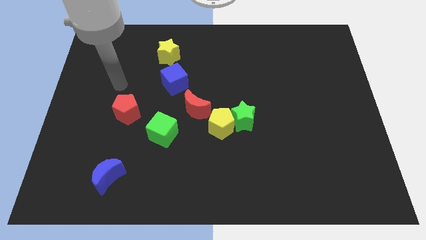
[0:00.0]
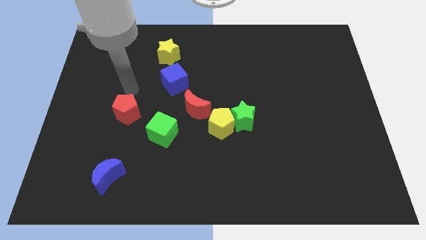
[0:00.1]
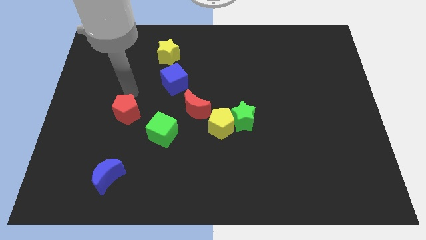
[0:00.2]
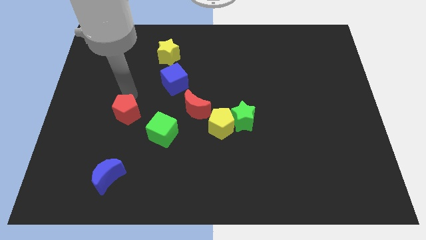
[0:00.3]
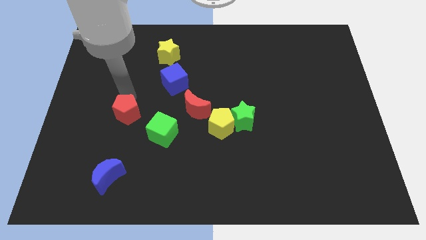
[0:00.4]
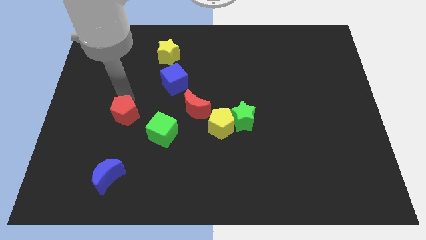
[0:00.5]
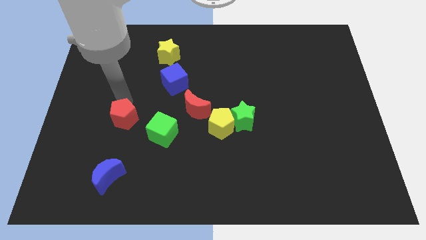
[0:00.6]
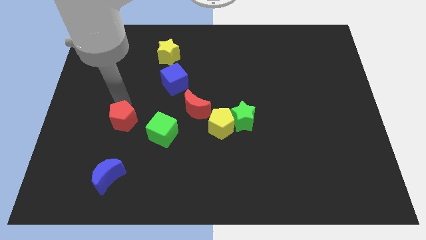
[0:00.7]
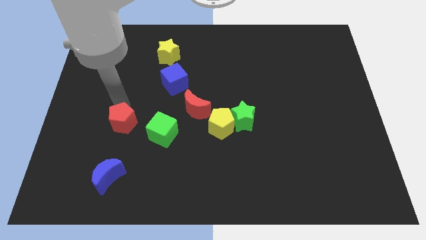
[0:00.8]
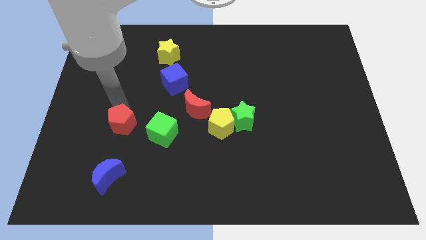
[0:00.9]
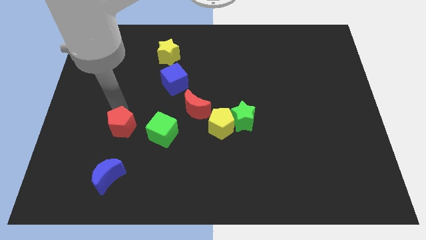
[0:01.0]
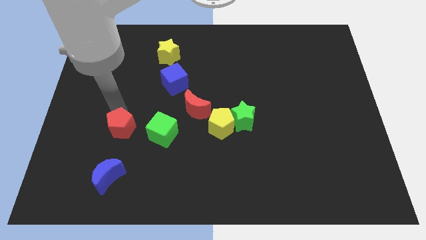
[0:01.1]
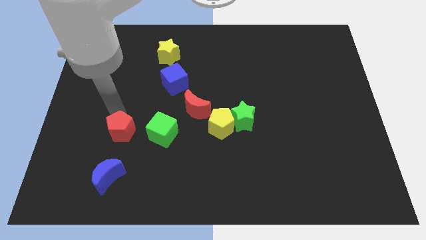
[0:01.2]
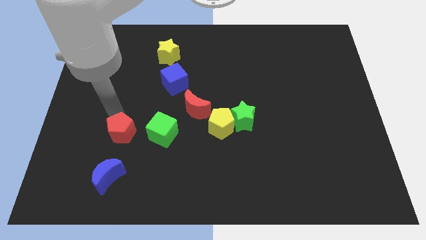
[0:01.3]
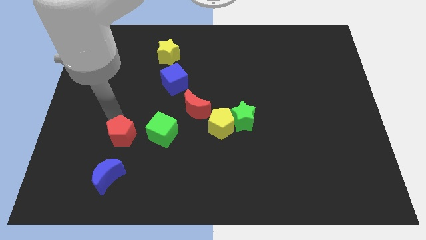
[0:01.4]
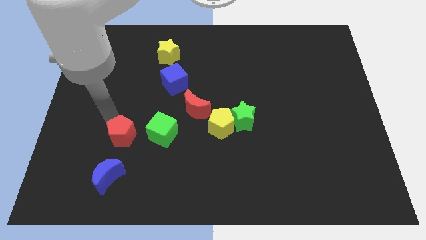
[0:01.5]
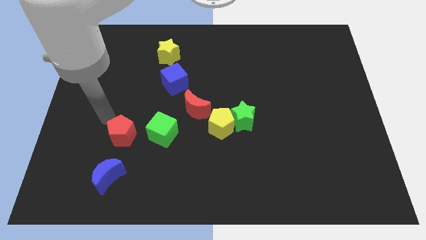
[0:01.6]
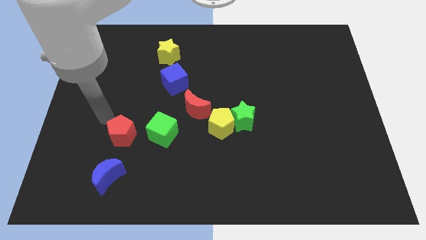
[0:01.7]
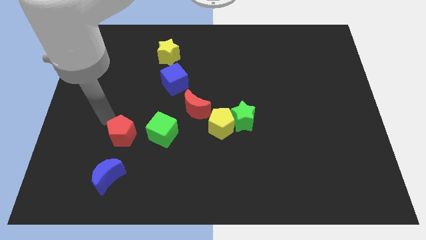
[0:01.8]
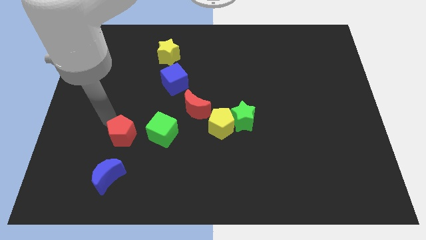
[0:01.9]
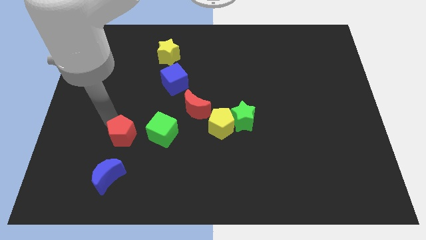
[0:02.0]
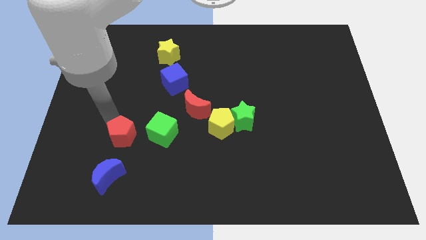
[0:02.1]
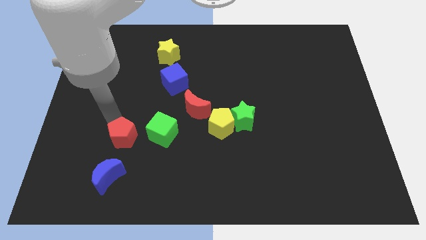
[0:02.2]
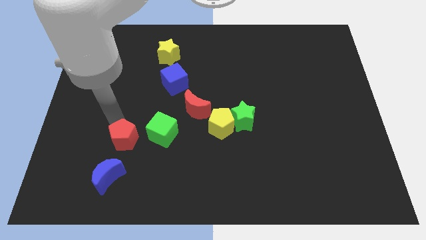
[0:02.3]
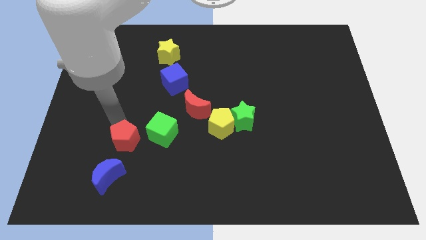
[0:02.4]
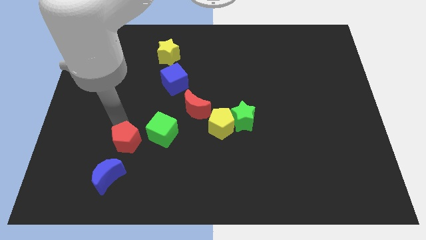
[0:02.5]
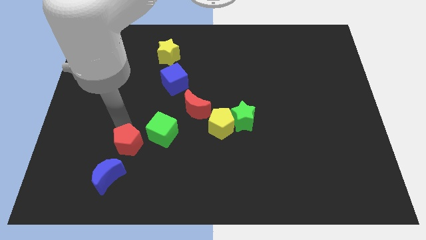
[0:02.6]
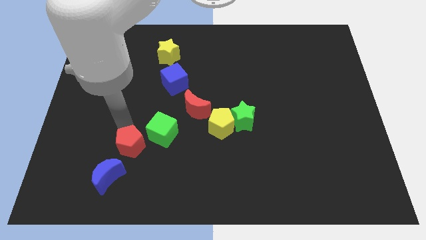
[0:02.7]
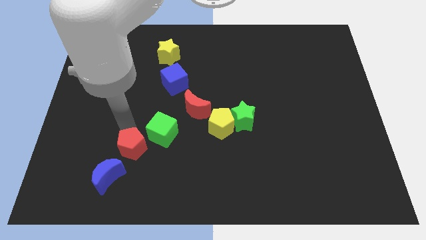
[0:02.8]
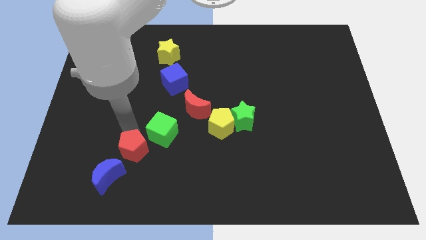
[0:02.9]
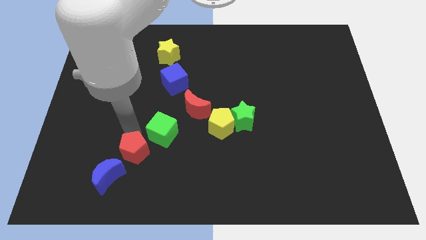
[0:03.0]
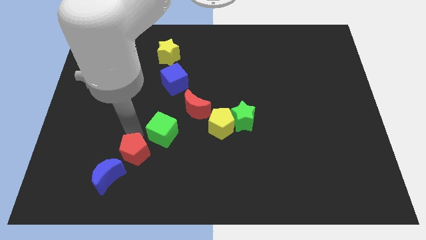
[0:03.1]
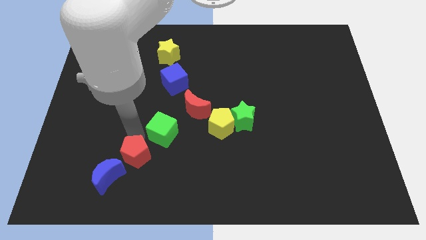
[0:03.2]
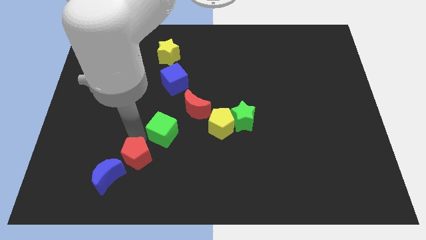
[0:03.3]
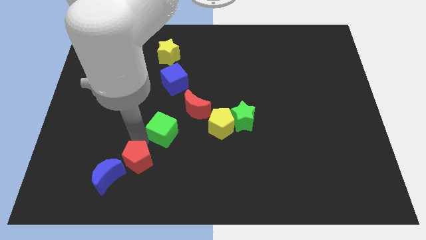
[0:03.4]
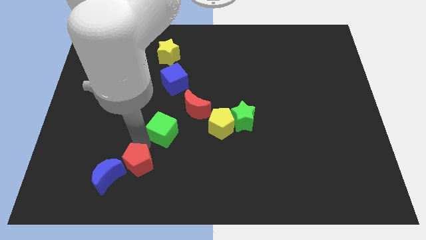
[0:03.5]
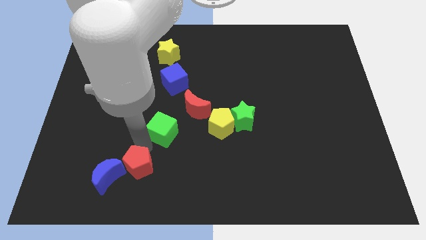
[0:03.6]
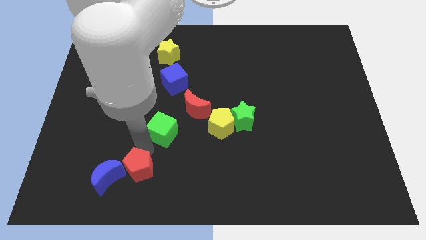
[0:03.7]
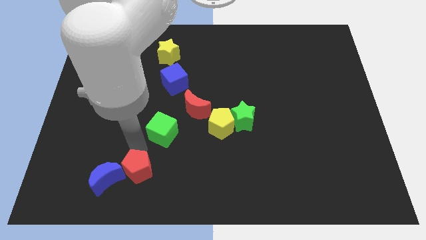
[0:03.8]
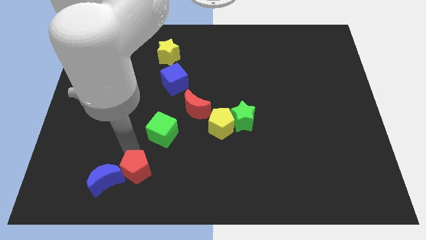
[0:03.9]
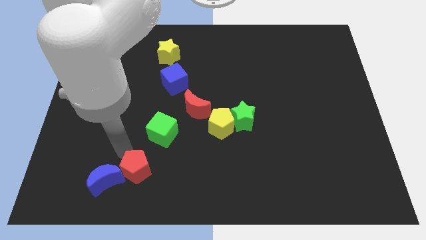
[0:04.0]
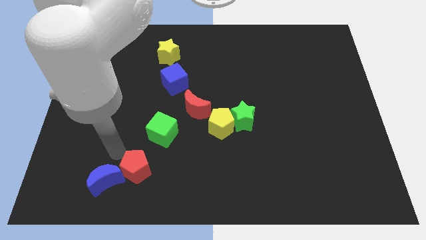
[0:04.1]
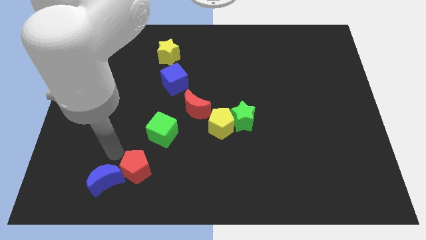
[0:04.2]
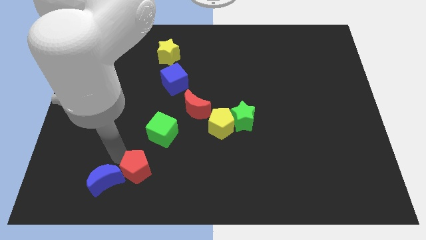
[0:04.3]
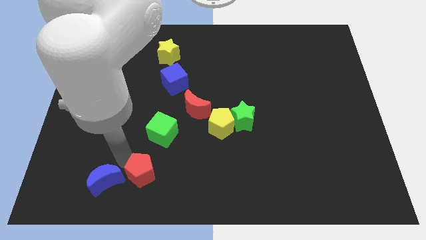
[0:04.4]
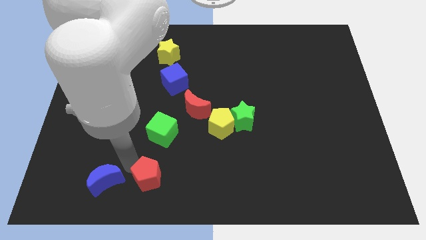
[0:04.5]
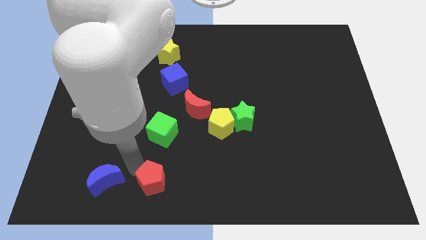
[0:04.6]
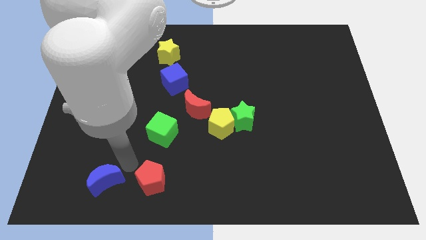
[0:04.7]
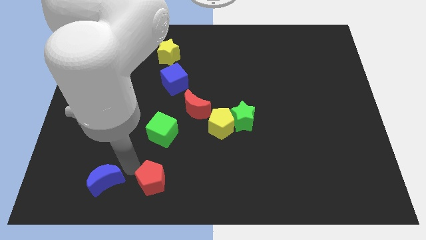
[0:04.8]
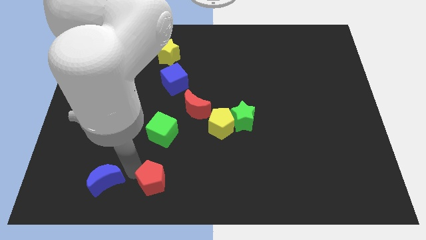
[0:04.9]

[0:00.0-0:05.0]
move the red pentagon to the bottom

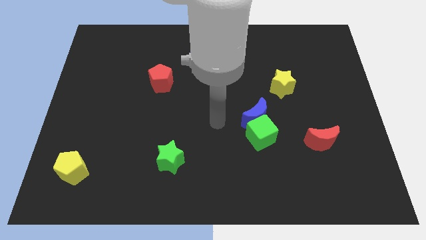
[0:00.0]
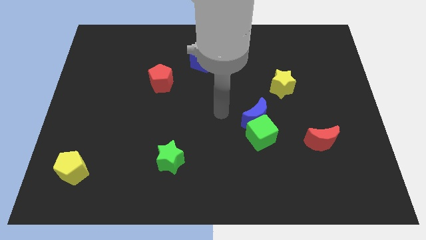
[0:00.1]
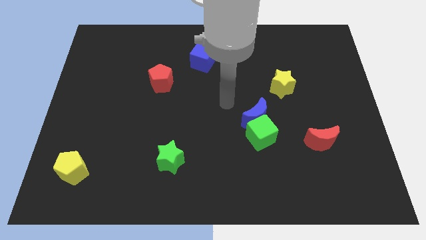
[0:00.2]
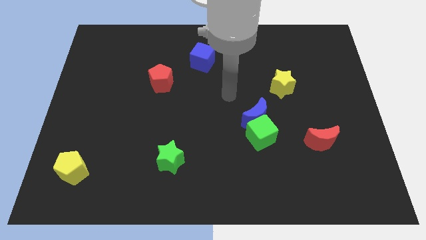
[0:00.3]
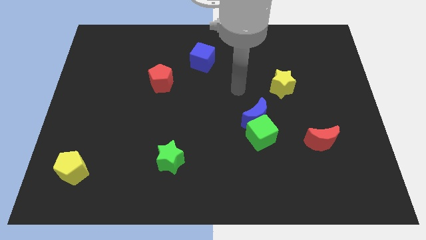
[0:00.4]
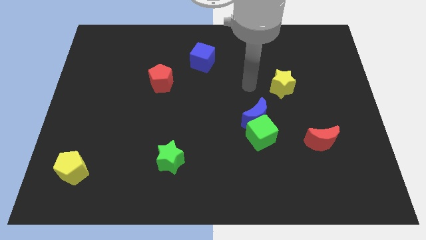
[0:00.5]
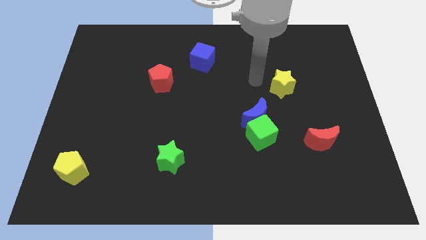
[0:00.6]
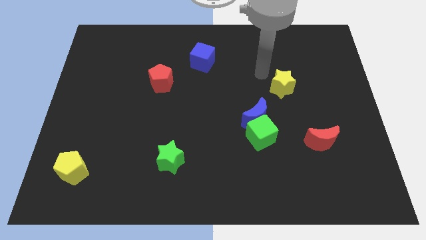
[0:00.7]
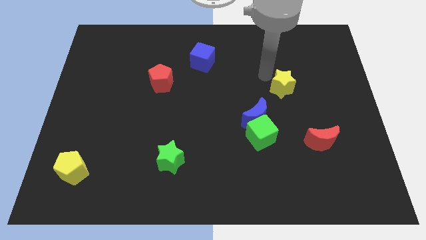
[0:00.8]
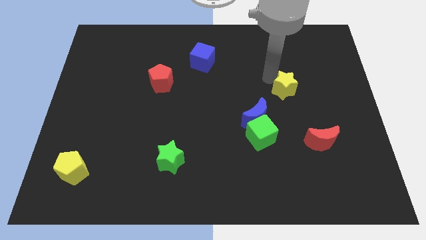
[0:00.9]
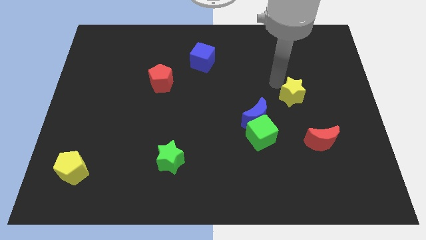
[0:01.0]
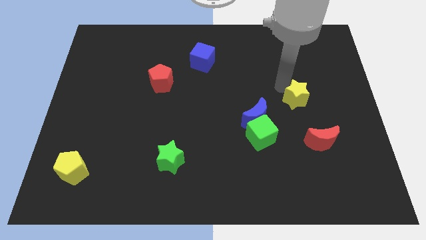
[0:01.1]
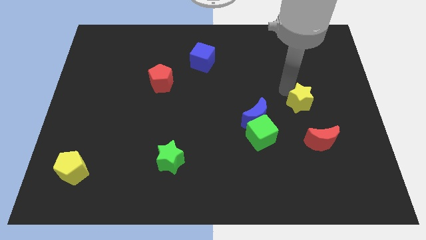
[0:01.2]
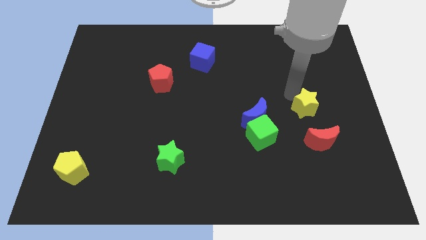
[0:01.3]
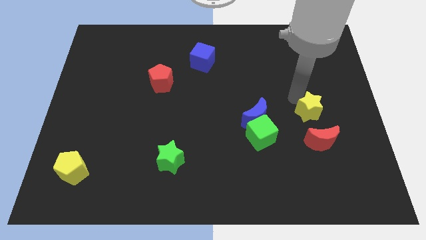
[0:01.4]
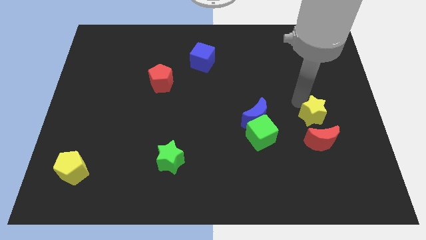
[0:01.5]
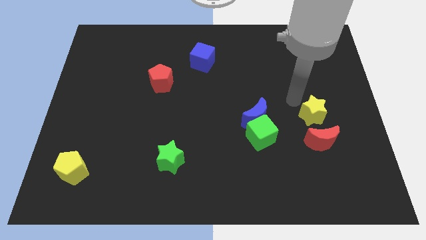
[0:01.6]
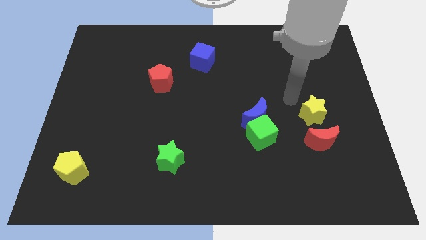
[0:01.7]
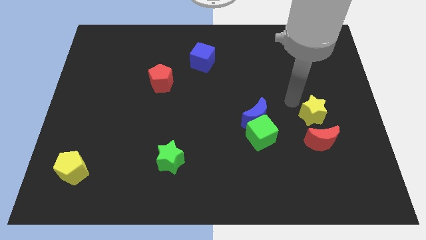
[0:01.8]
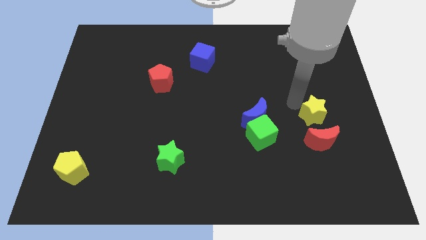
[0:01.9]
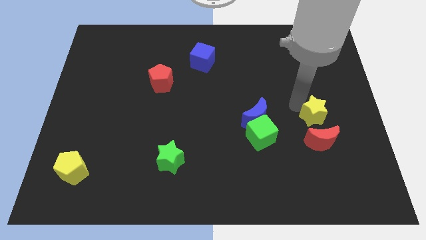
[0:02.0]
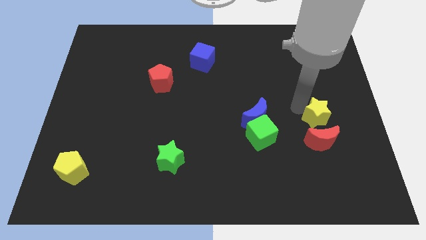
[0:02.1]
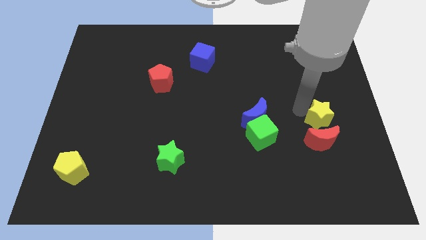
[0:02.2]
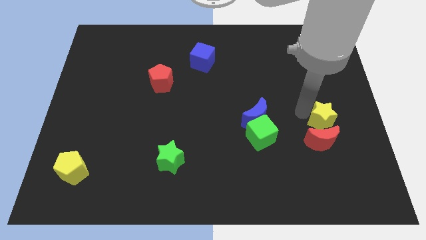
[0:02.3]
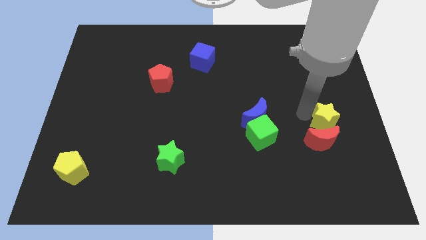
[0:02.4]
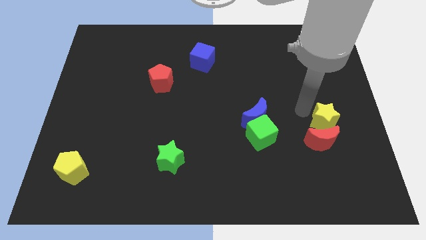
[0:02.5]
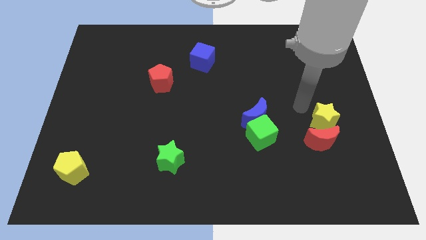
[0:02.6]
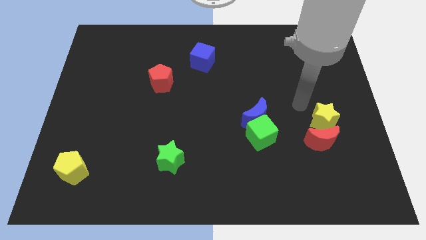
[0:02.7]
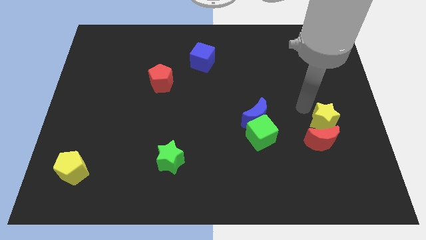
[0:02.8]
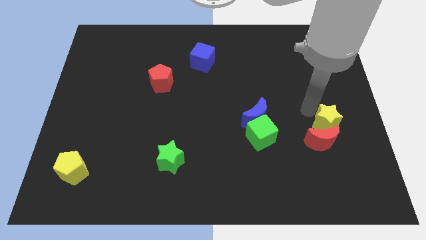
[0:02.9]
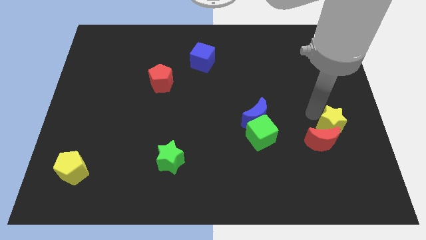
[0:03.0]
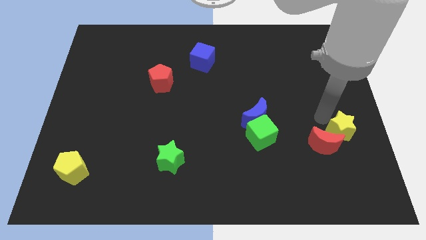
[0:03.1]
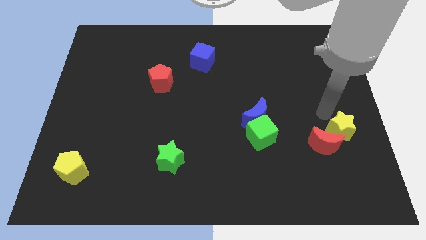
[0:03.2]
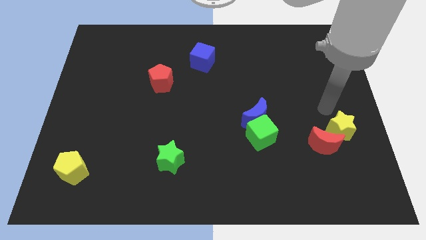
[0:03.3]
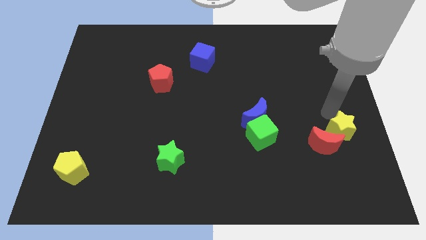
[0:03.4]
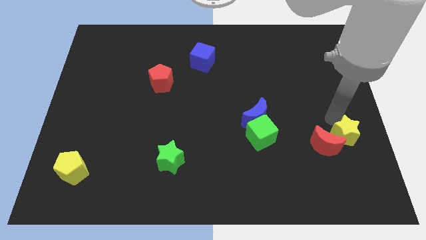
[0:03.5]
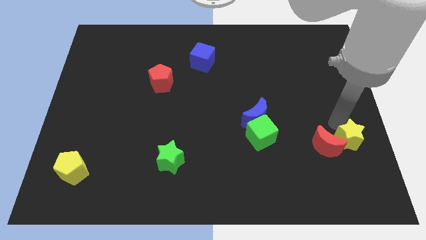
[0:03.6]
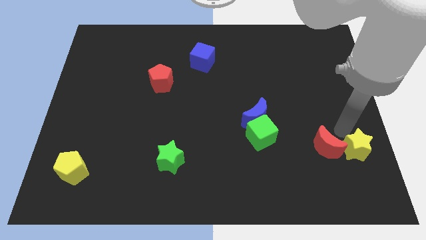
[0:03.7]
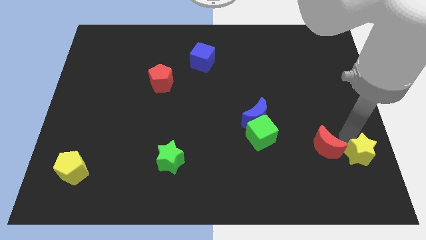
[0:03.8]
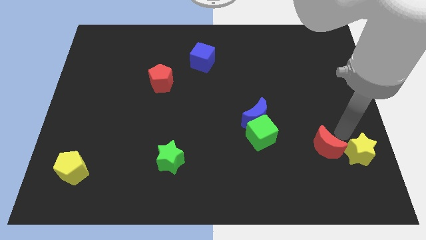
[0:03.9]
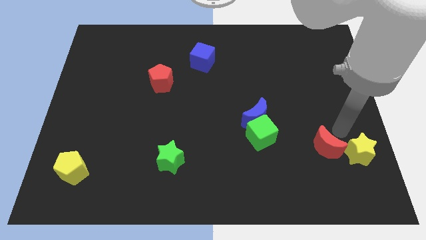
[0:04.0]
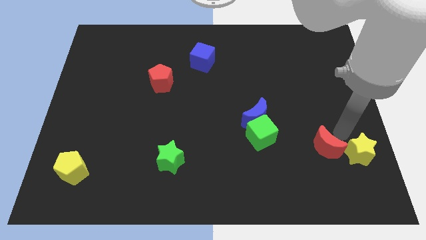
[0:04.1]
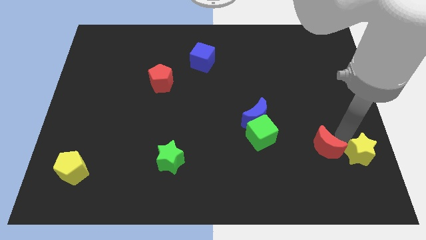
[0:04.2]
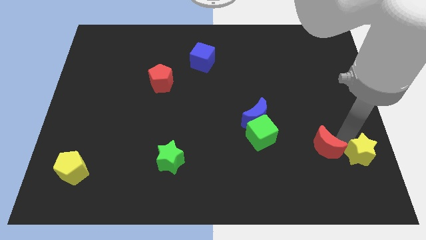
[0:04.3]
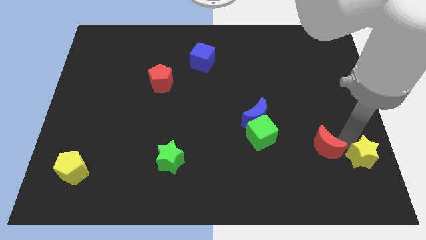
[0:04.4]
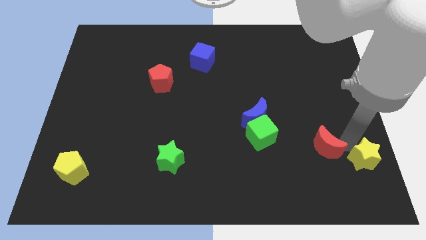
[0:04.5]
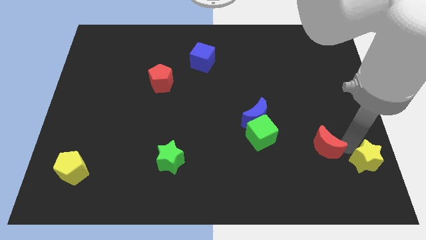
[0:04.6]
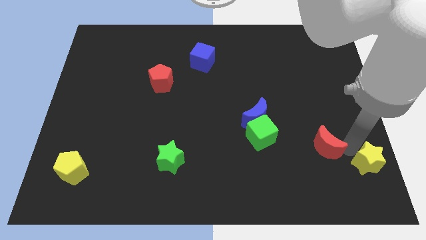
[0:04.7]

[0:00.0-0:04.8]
put the yellow star to the lower right corner
